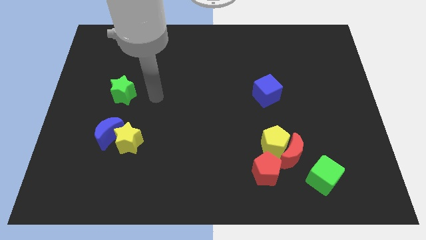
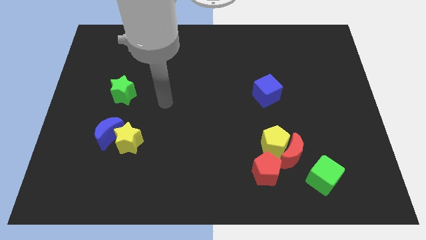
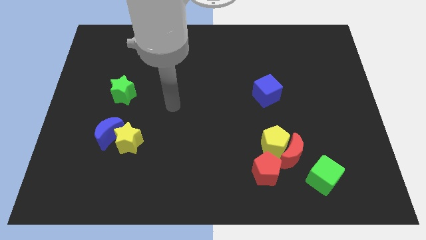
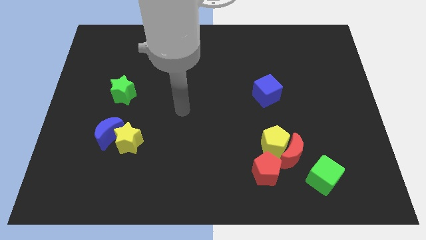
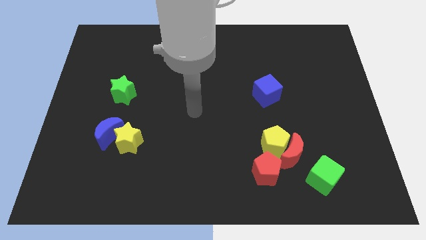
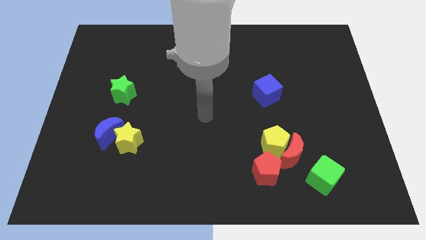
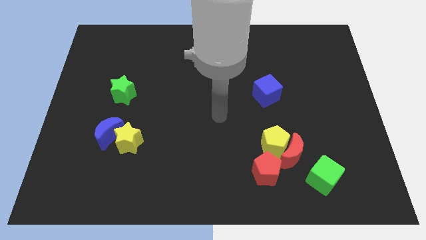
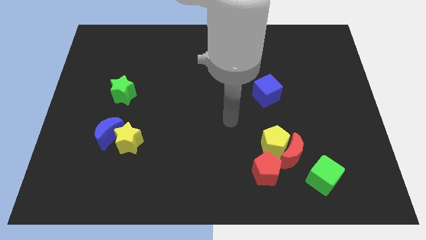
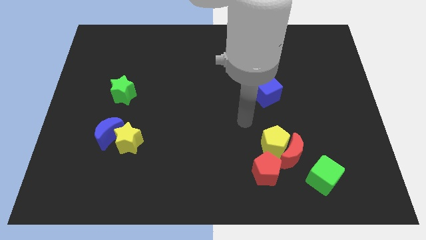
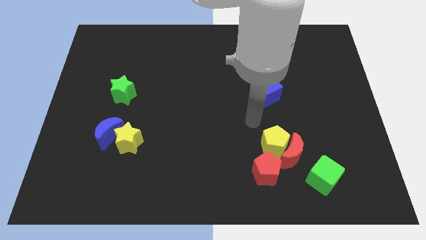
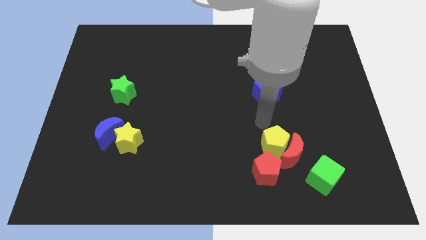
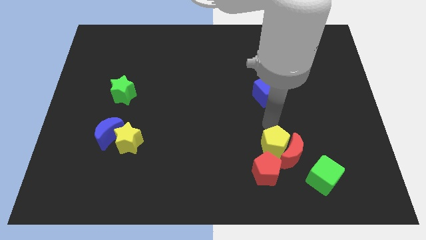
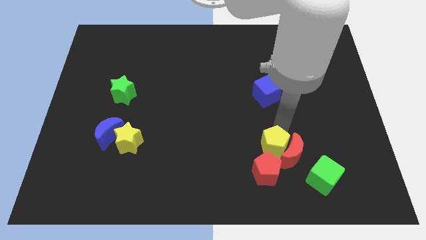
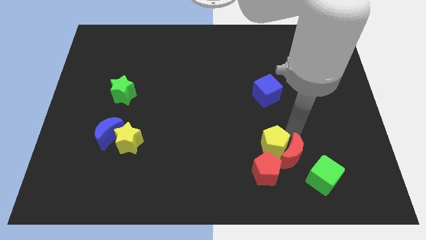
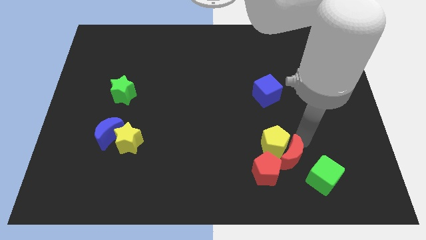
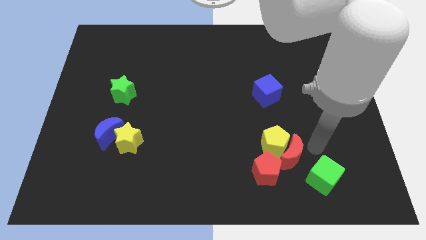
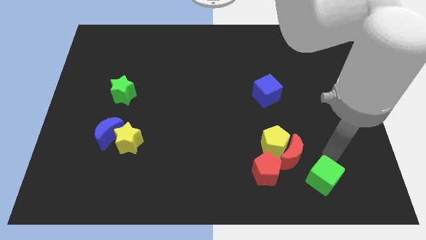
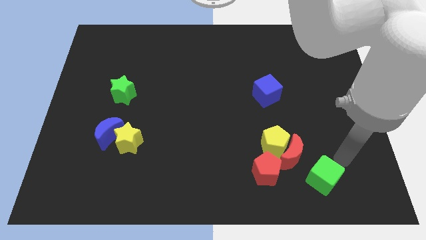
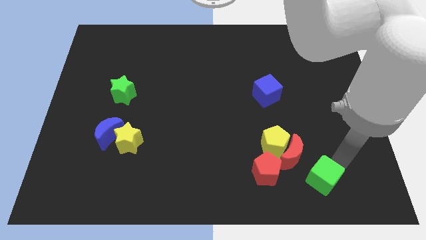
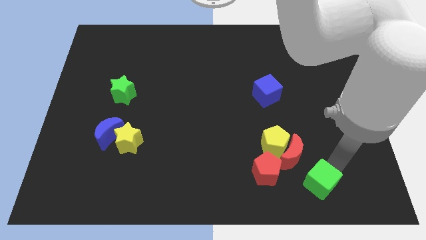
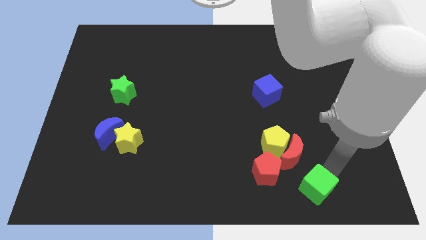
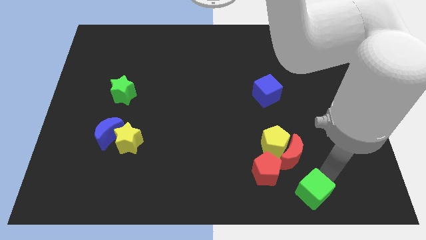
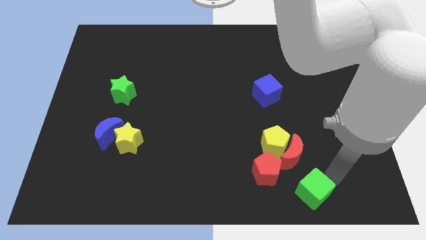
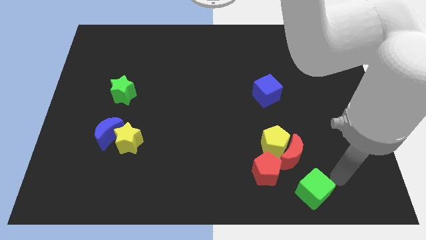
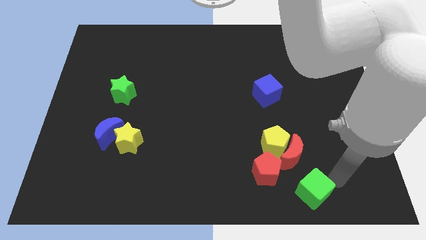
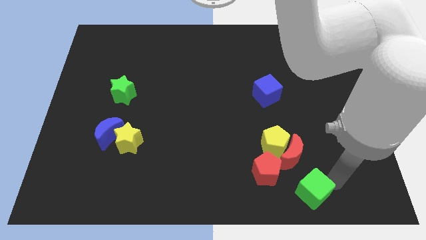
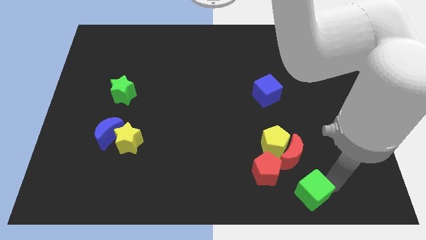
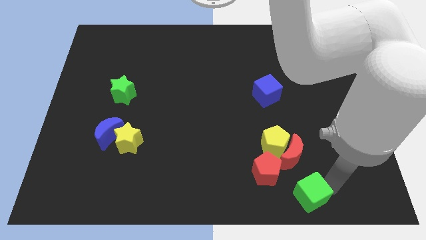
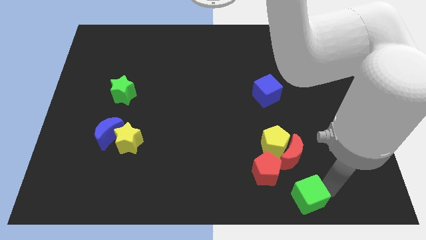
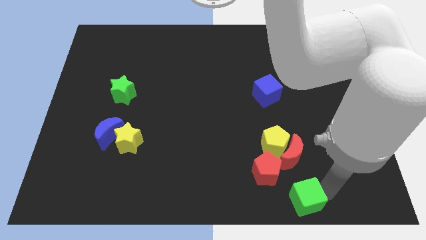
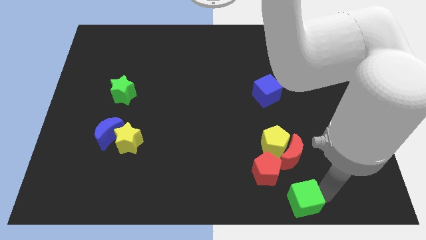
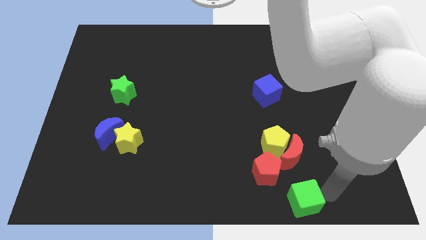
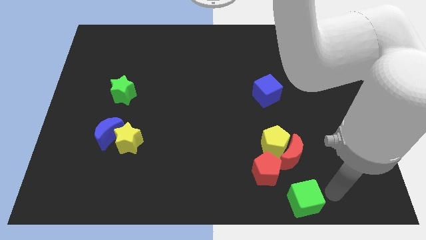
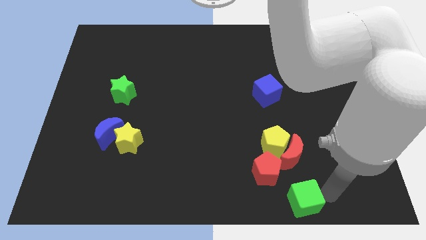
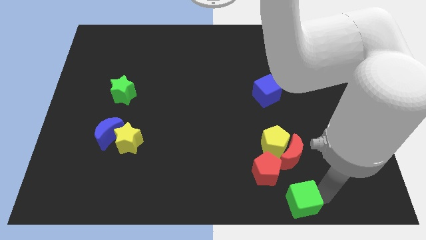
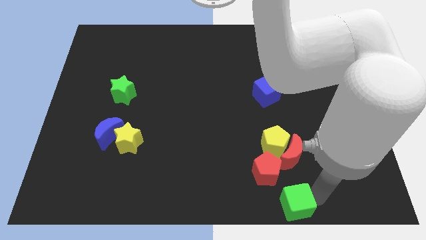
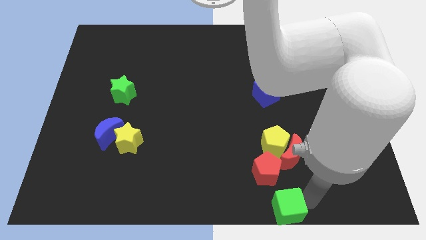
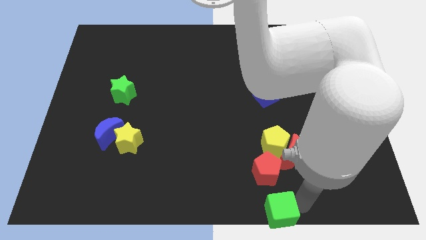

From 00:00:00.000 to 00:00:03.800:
slide the green cube a little to the left

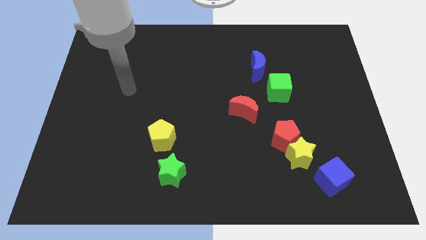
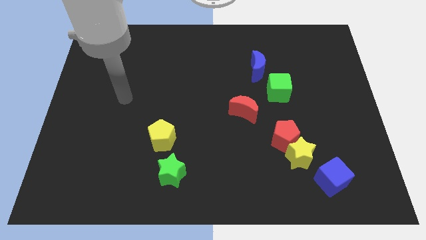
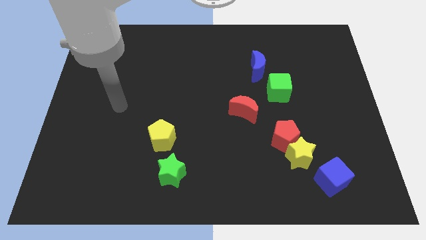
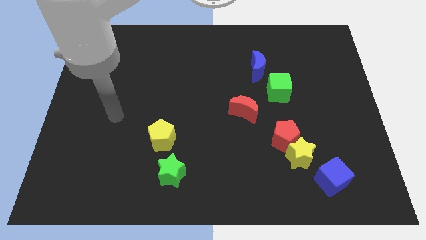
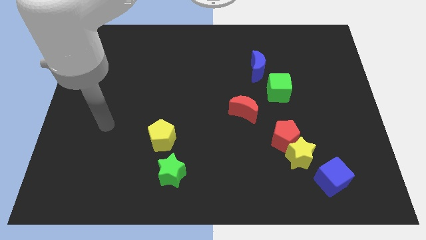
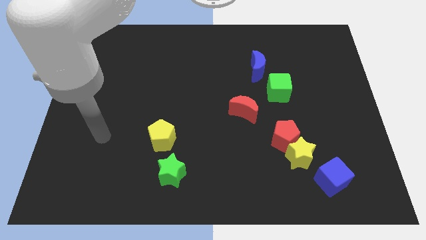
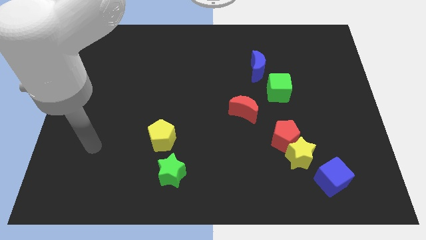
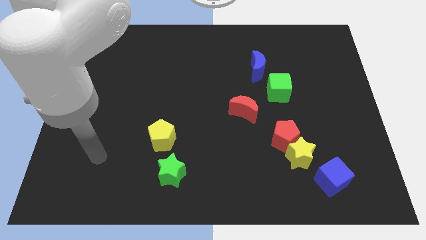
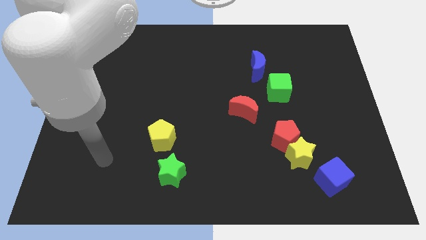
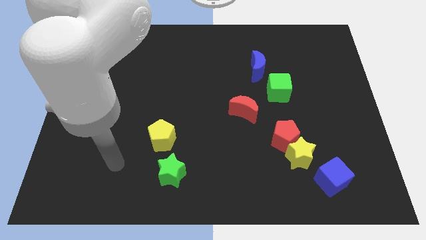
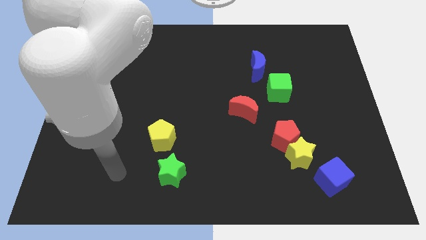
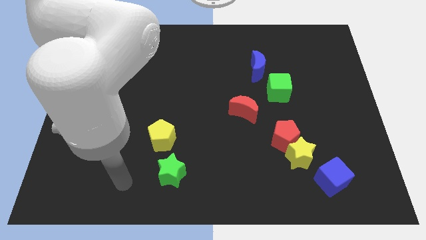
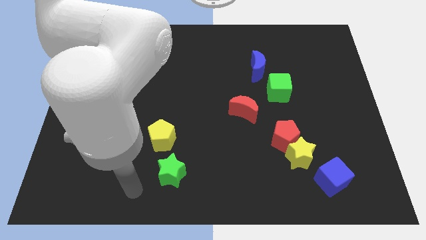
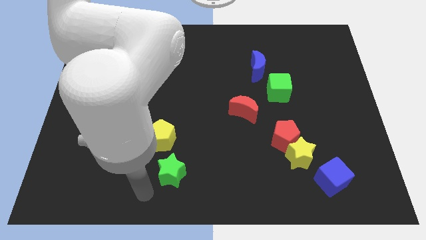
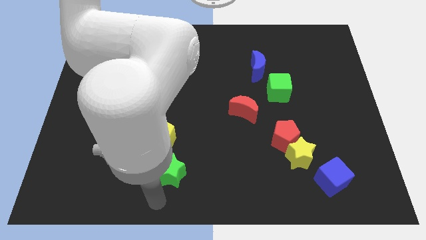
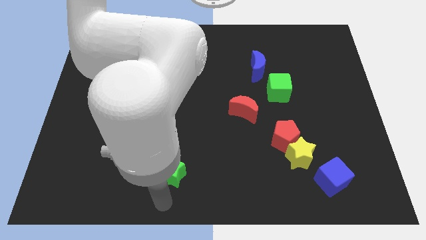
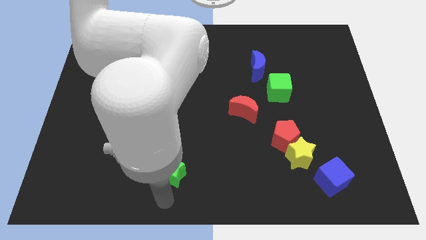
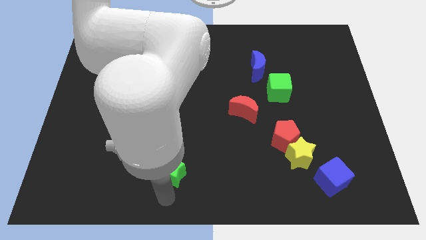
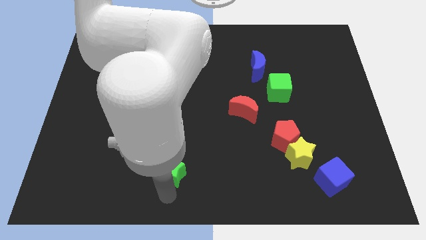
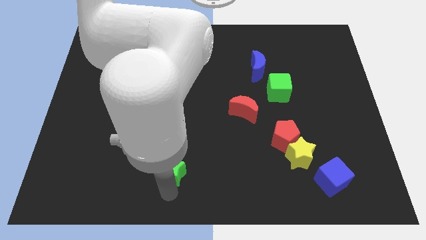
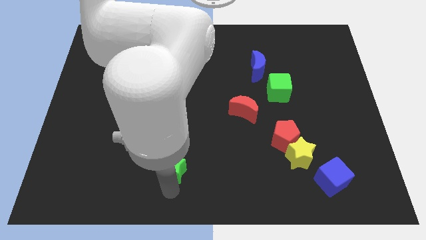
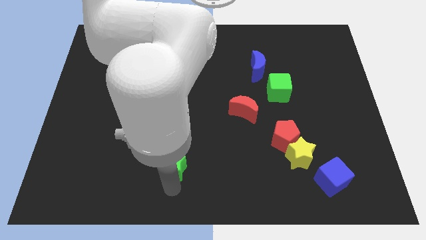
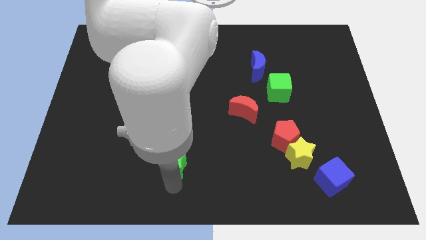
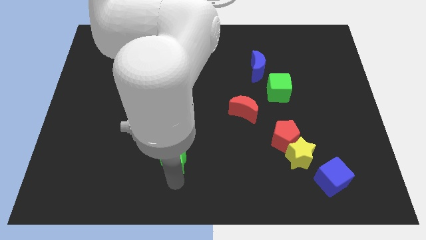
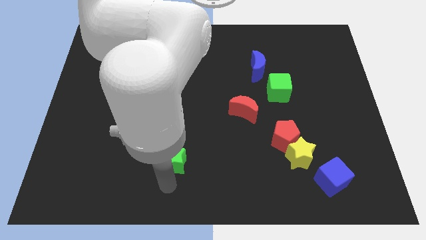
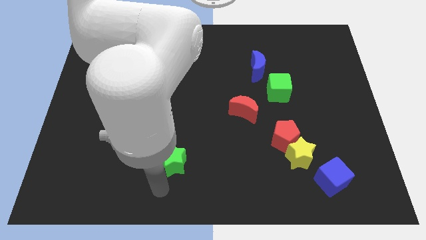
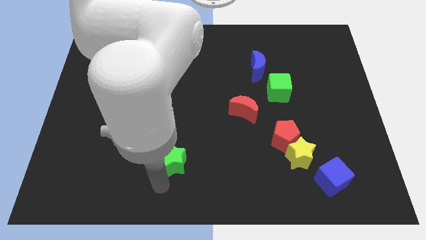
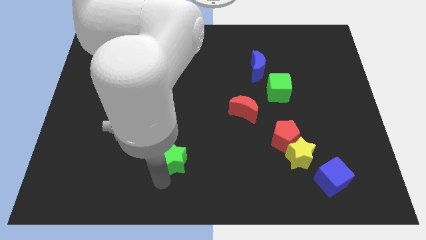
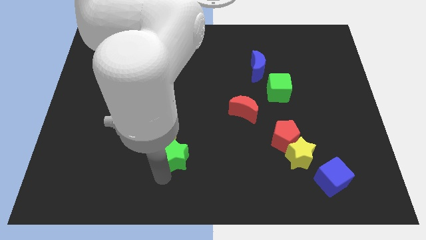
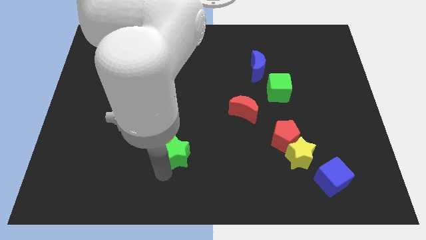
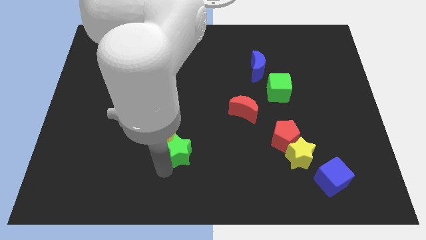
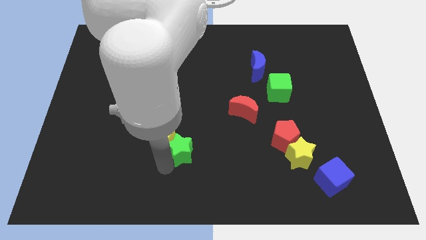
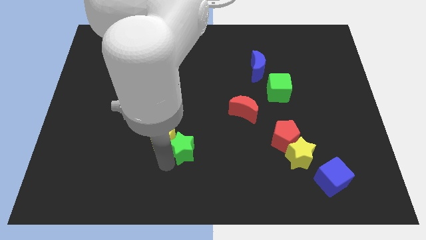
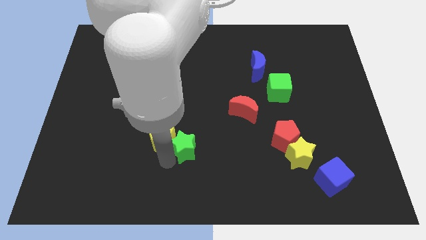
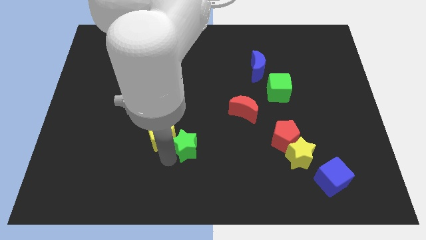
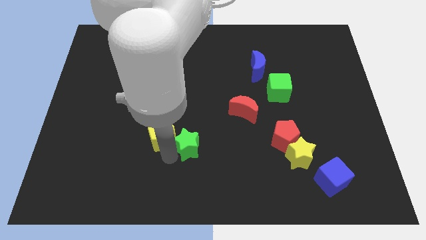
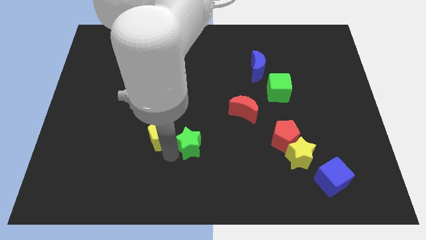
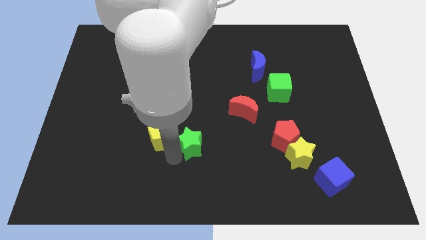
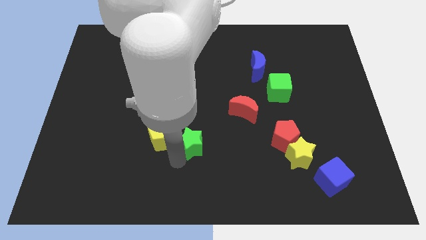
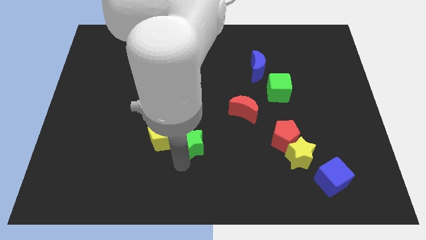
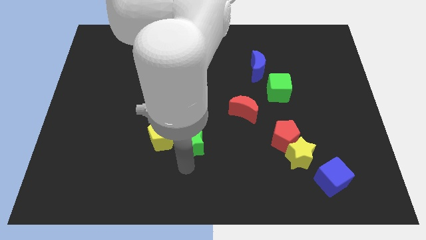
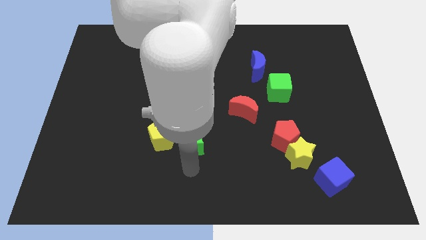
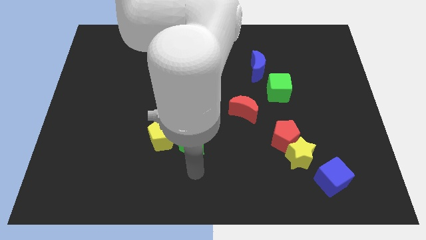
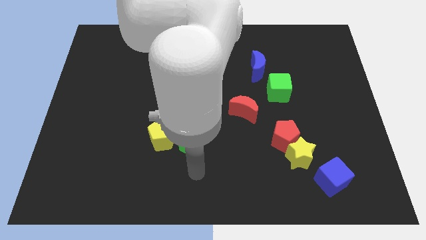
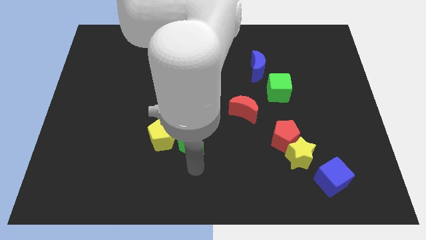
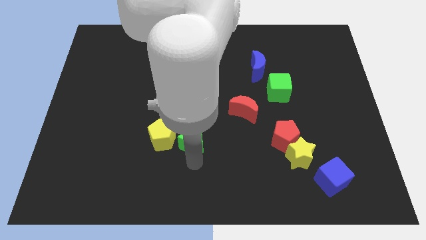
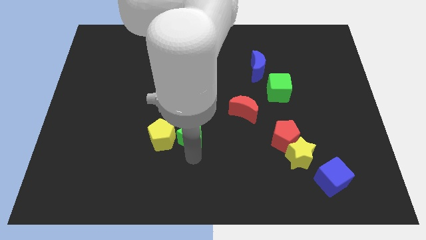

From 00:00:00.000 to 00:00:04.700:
slightly push the green star up

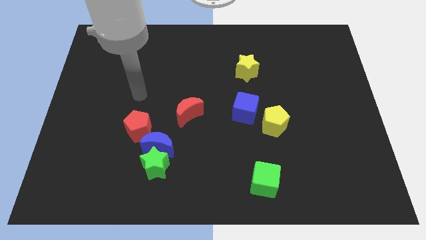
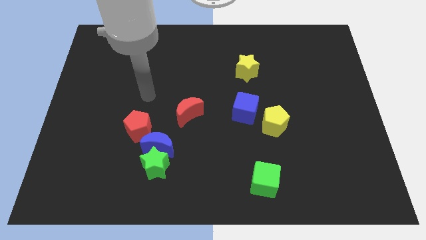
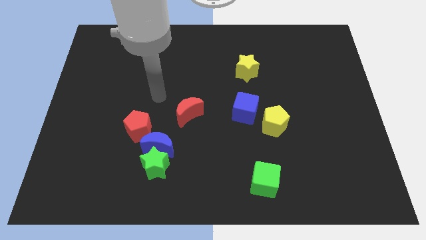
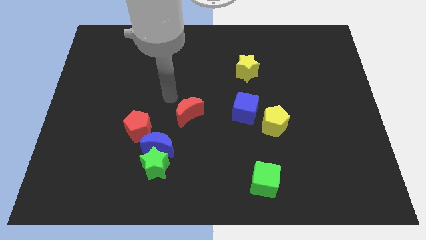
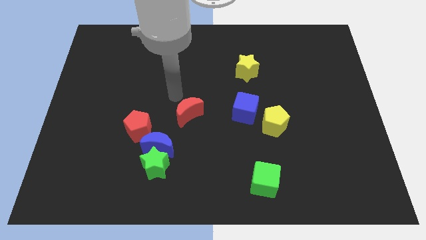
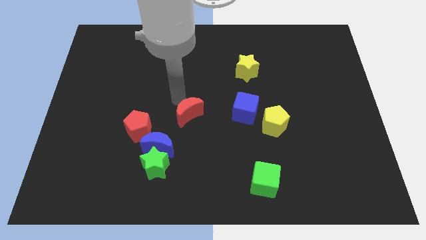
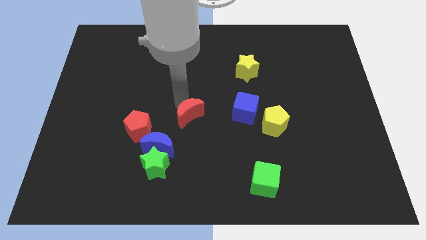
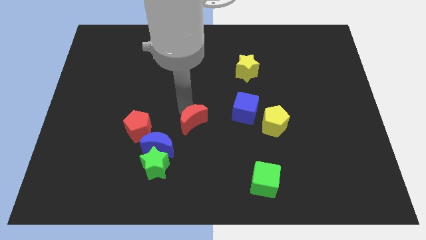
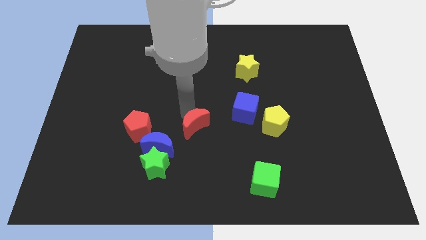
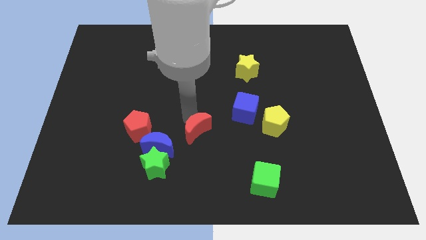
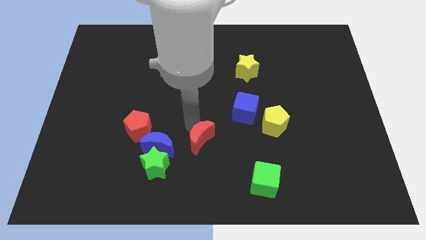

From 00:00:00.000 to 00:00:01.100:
push the red moon a bit diagonally downwards and to the right
